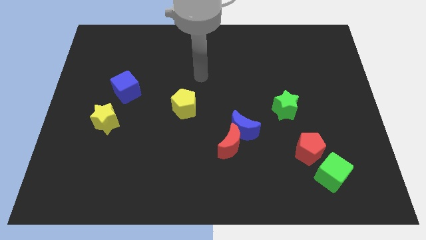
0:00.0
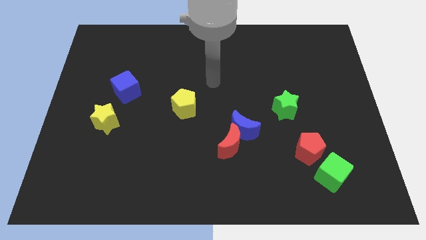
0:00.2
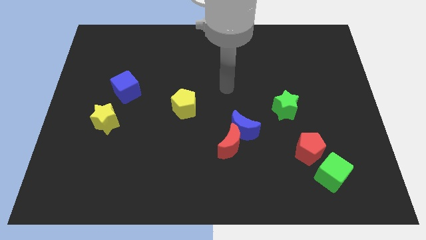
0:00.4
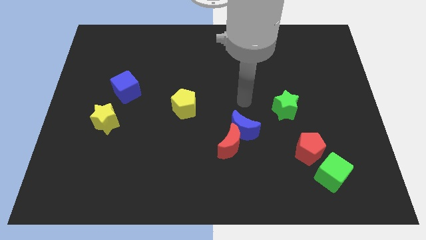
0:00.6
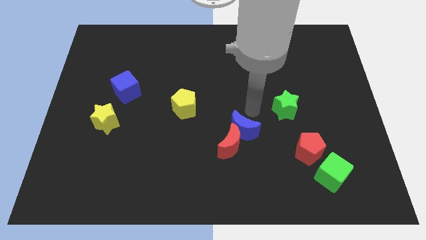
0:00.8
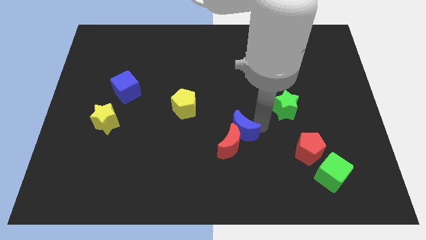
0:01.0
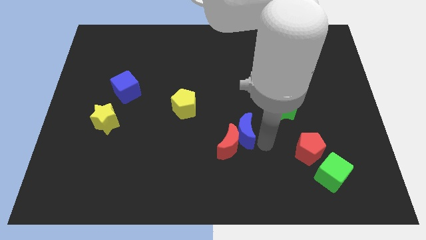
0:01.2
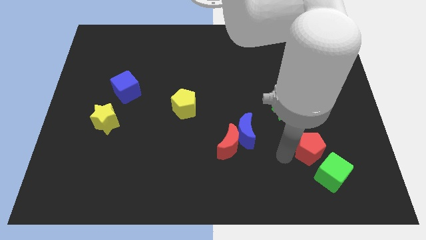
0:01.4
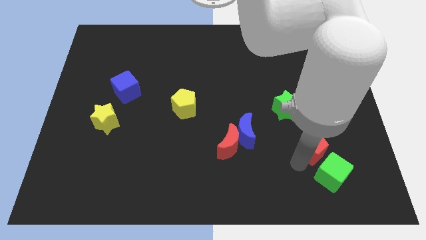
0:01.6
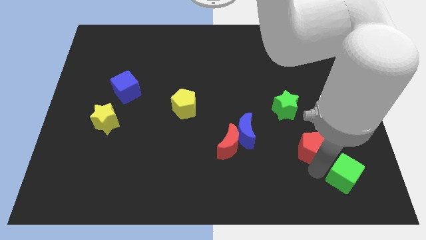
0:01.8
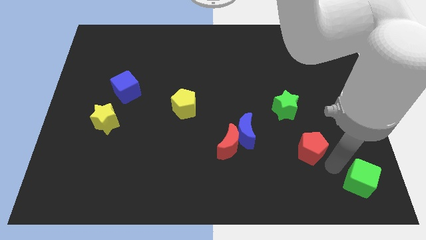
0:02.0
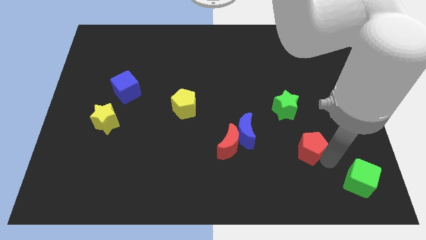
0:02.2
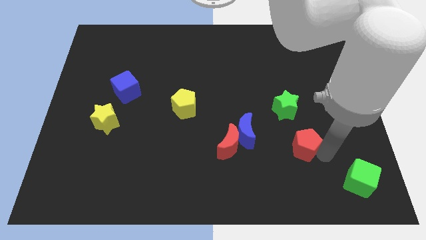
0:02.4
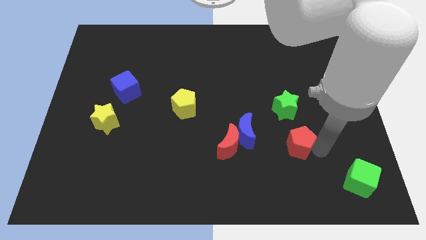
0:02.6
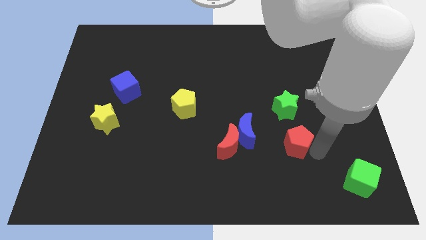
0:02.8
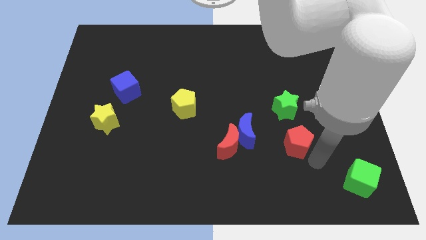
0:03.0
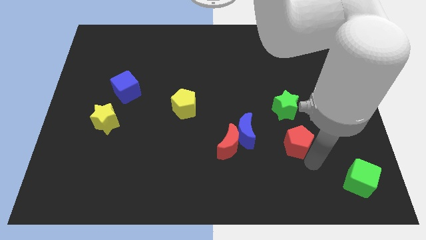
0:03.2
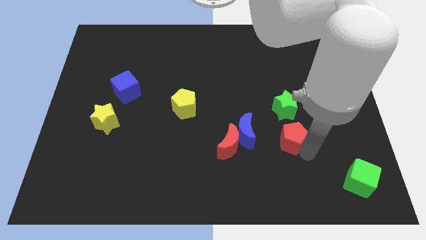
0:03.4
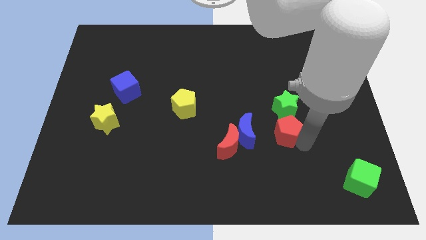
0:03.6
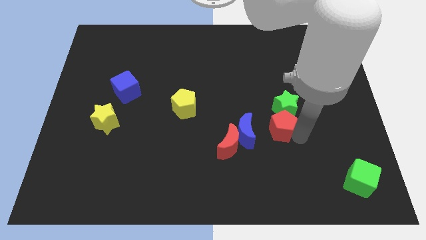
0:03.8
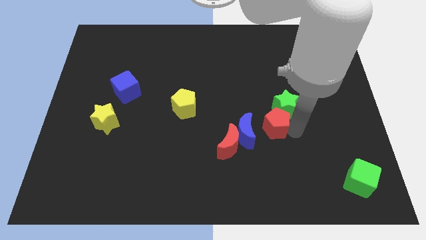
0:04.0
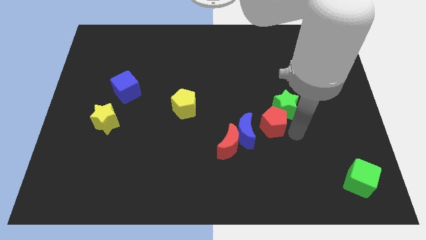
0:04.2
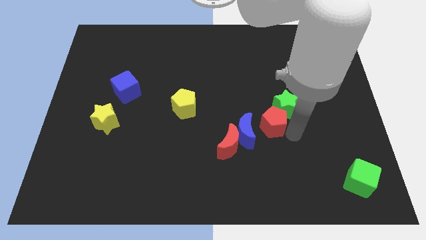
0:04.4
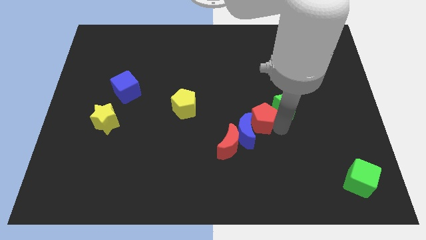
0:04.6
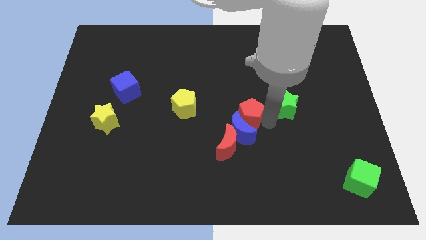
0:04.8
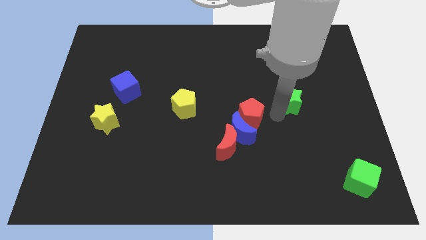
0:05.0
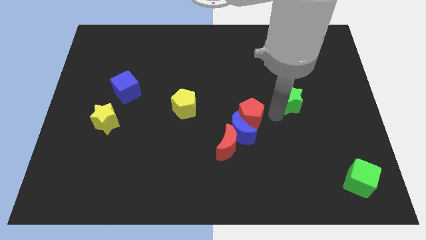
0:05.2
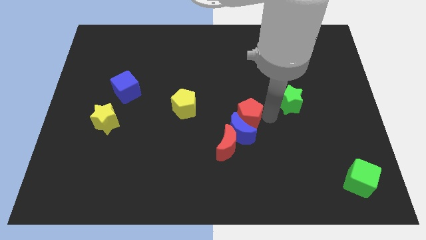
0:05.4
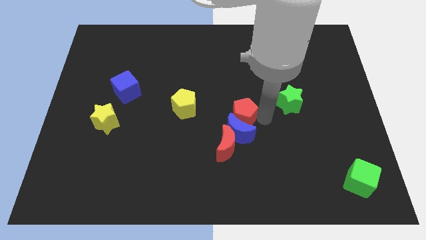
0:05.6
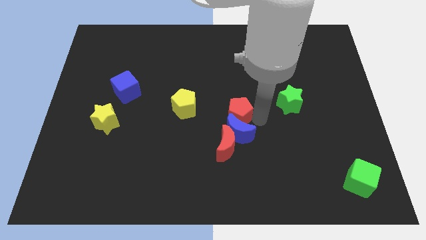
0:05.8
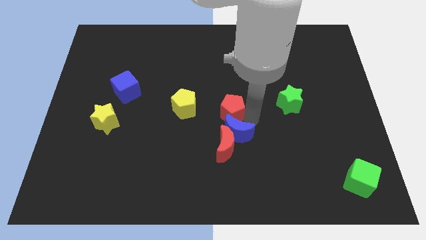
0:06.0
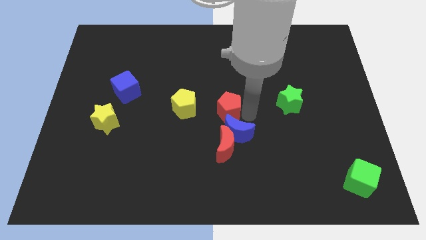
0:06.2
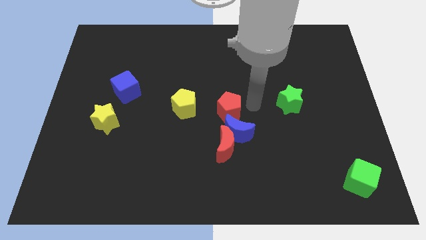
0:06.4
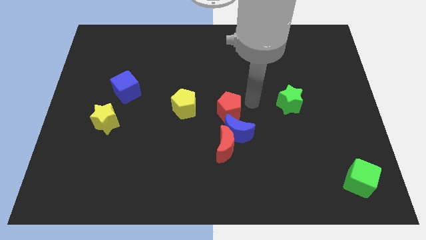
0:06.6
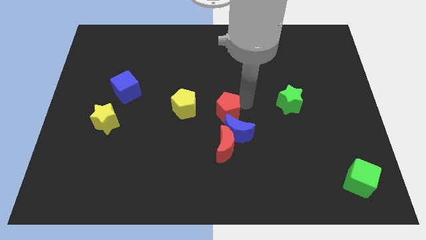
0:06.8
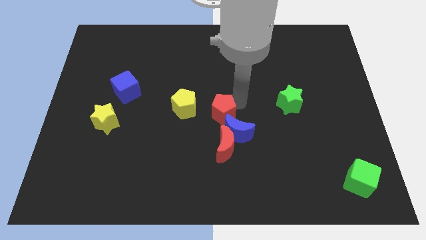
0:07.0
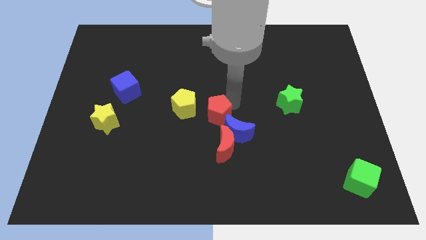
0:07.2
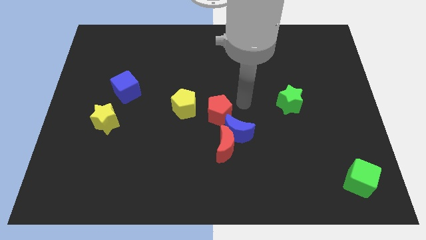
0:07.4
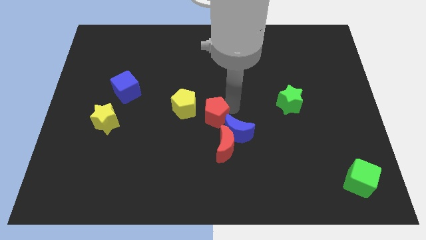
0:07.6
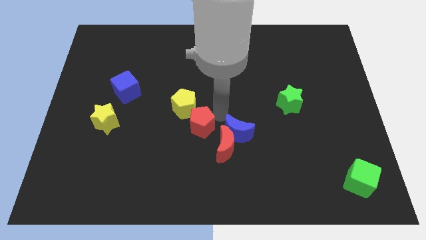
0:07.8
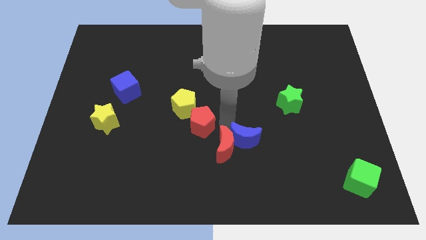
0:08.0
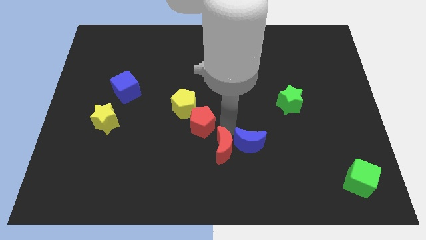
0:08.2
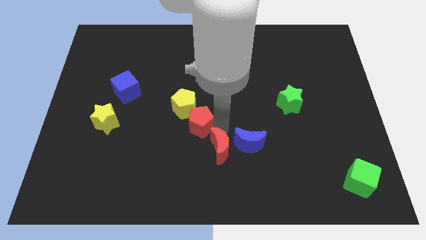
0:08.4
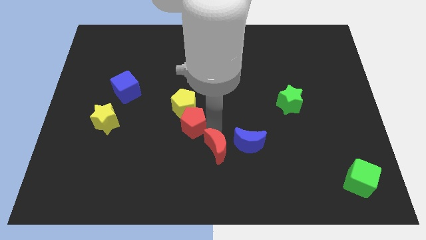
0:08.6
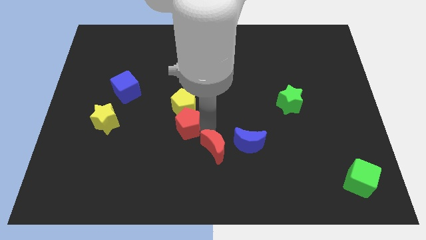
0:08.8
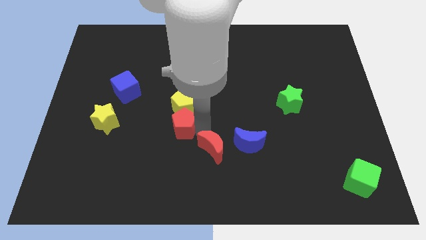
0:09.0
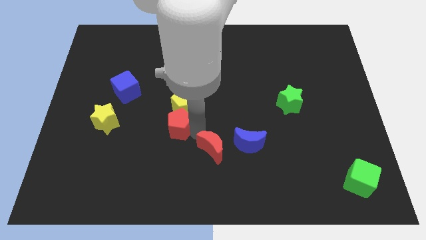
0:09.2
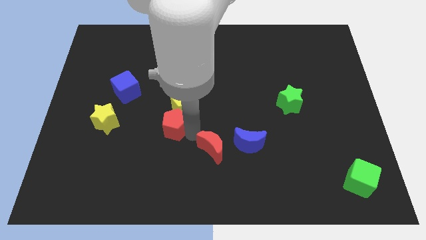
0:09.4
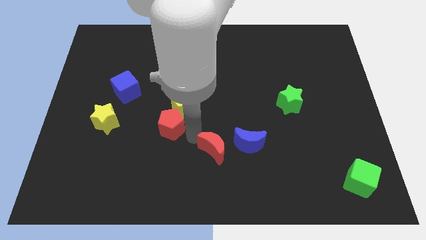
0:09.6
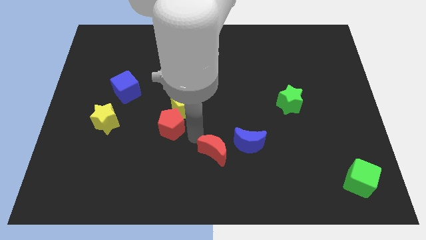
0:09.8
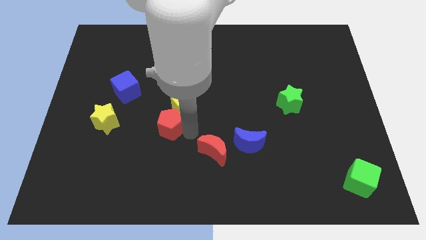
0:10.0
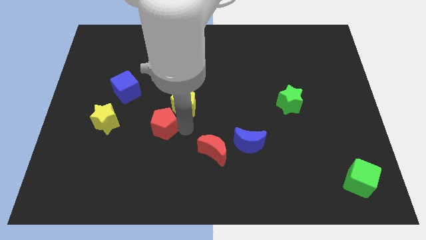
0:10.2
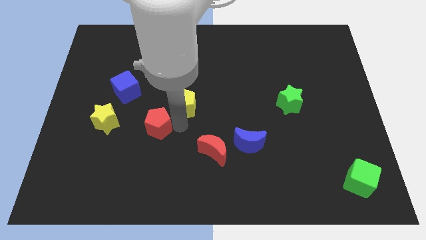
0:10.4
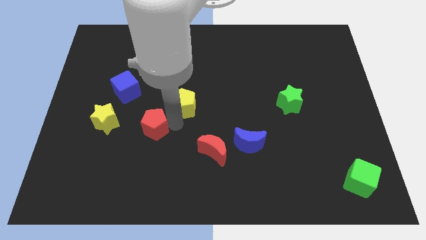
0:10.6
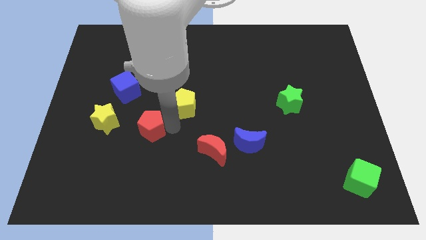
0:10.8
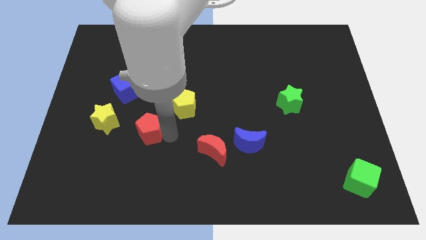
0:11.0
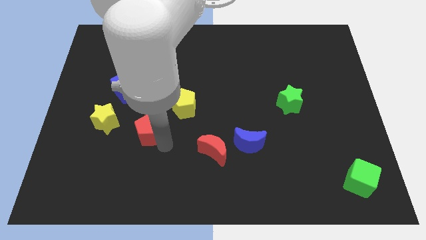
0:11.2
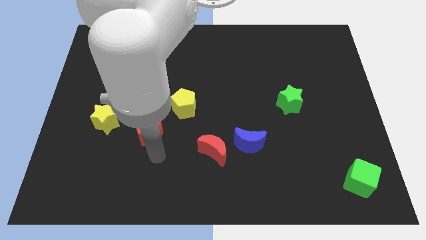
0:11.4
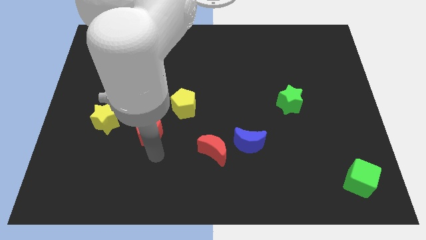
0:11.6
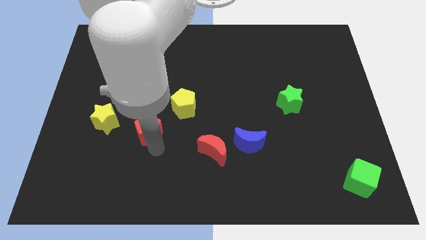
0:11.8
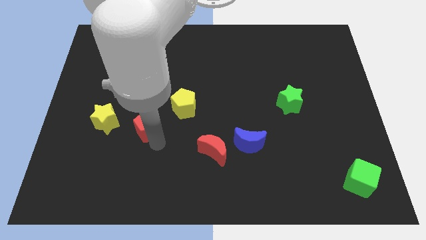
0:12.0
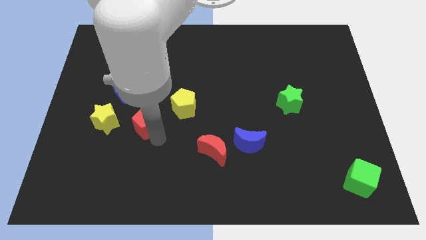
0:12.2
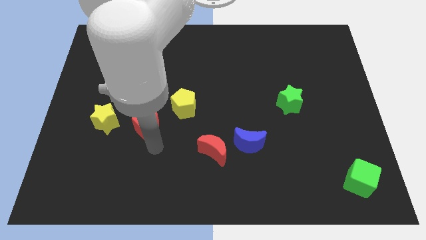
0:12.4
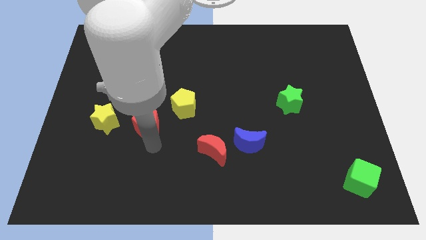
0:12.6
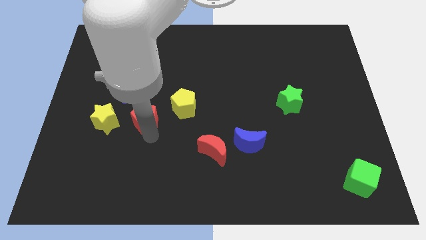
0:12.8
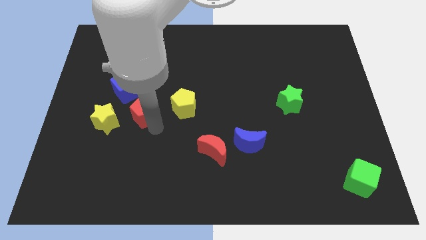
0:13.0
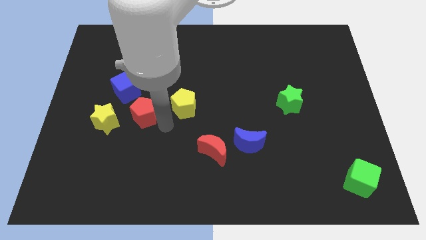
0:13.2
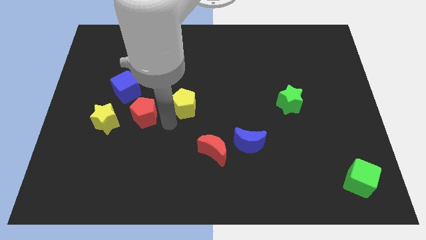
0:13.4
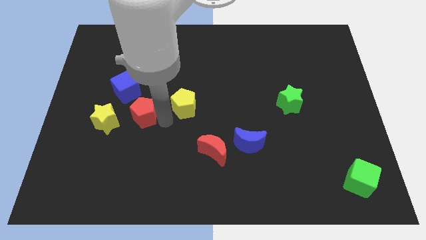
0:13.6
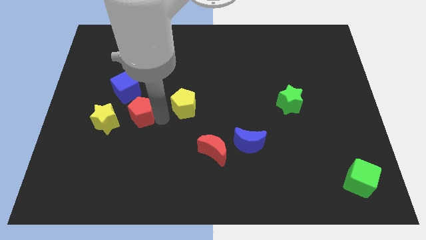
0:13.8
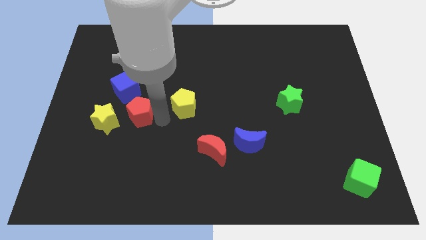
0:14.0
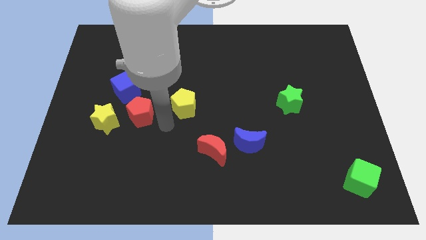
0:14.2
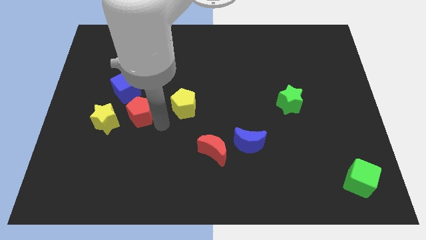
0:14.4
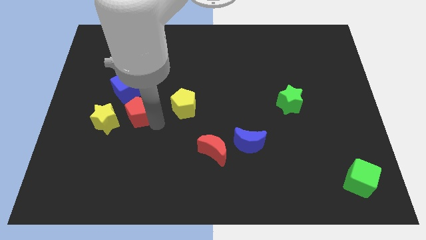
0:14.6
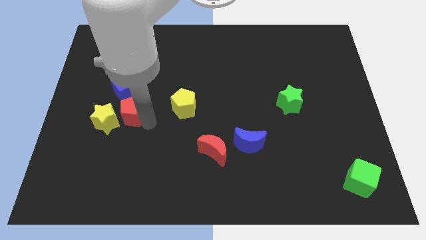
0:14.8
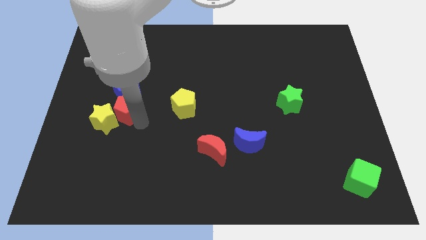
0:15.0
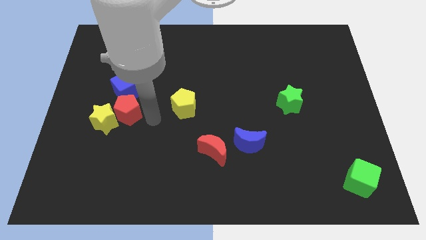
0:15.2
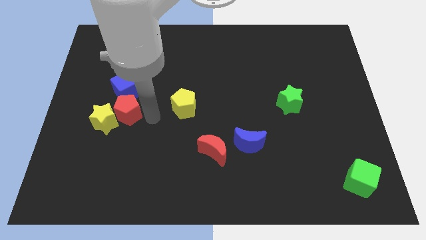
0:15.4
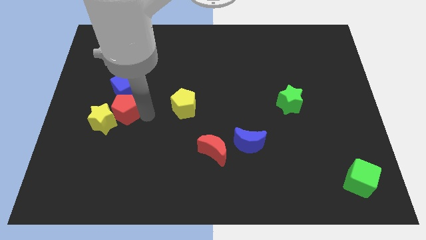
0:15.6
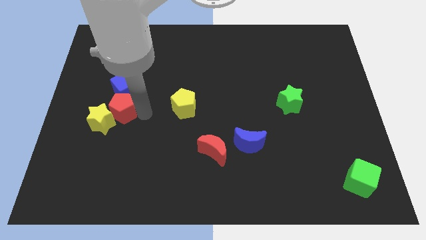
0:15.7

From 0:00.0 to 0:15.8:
move the red pentagon diagonally down and to the left of the blue cube
